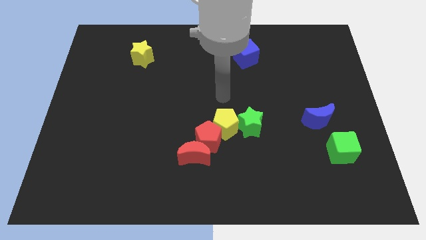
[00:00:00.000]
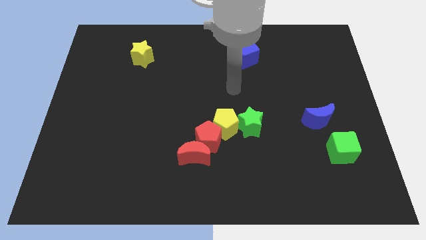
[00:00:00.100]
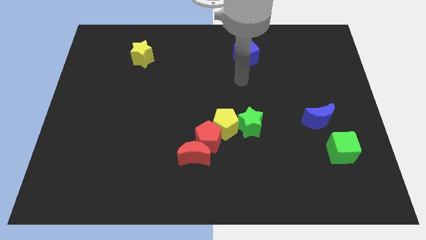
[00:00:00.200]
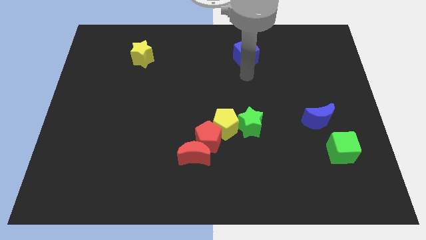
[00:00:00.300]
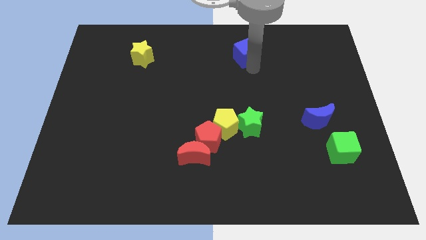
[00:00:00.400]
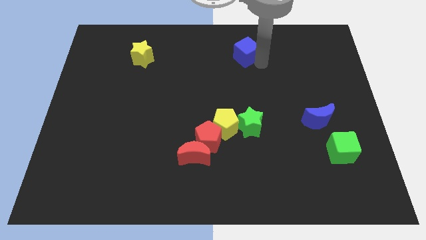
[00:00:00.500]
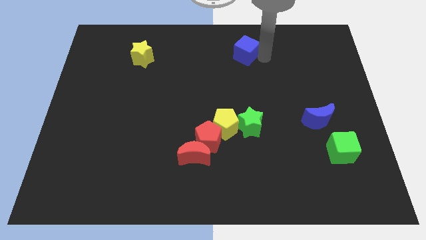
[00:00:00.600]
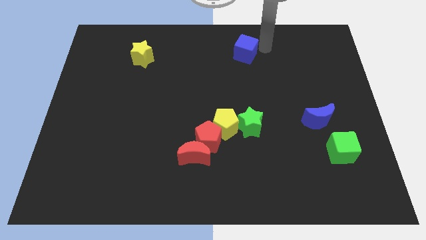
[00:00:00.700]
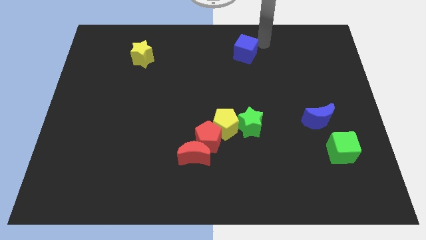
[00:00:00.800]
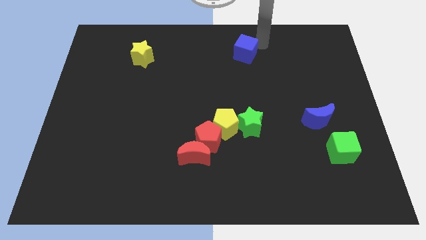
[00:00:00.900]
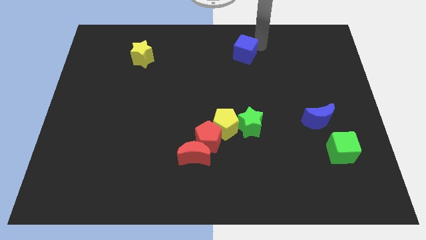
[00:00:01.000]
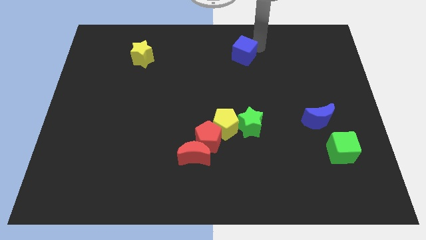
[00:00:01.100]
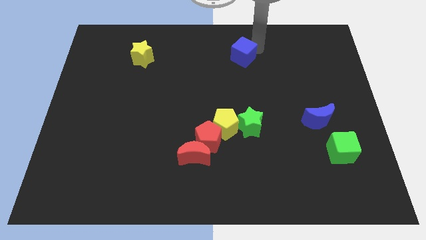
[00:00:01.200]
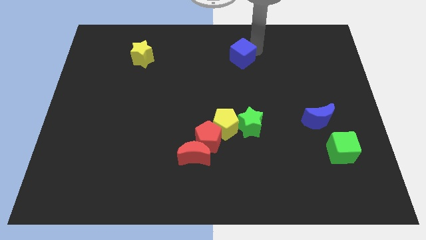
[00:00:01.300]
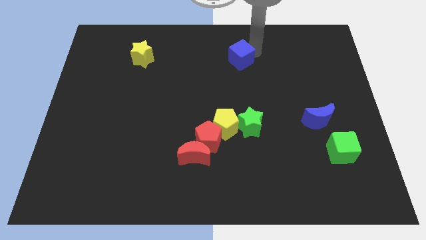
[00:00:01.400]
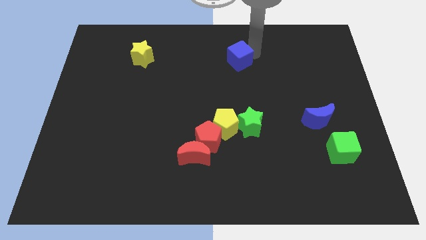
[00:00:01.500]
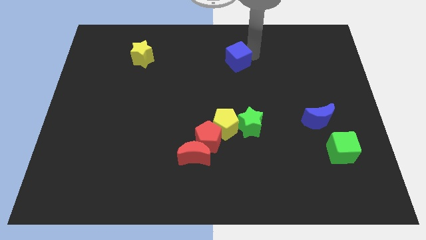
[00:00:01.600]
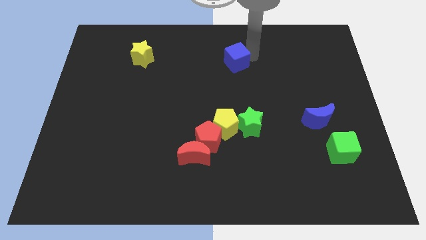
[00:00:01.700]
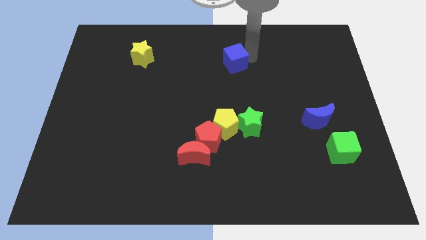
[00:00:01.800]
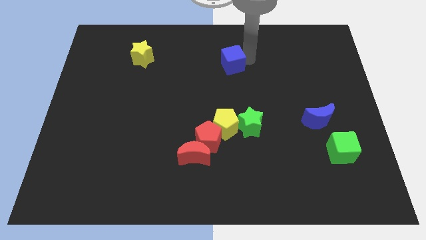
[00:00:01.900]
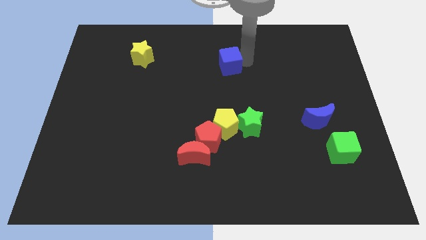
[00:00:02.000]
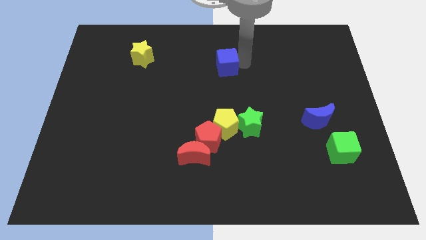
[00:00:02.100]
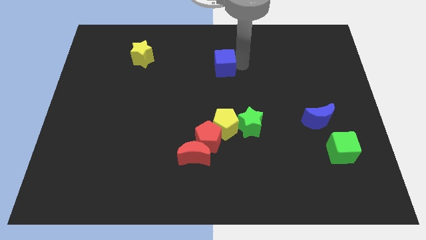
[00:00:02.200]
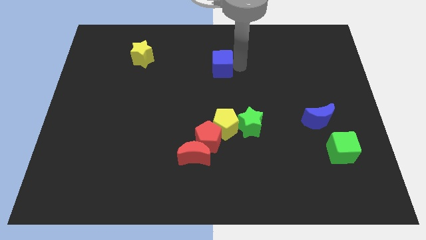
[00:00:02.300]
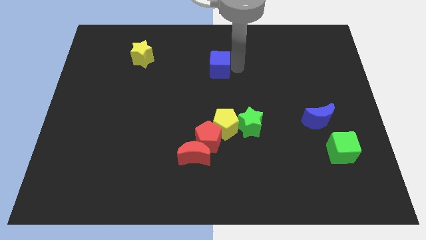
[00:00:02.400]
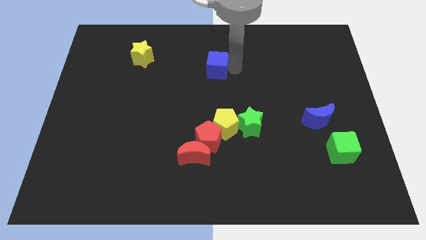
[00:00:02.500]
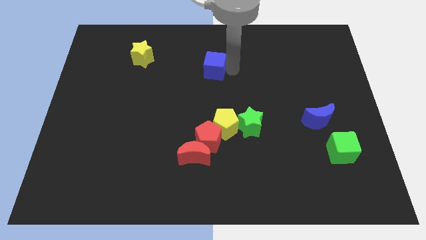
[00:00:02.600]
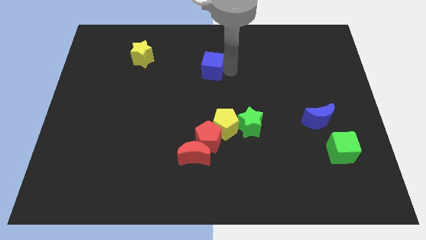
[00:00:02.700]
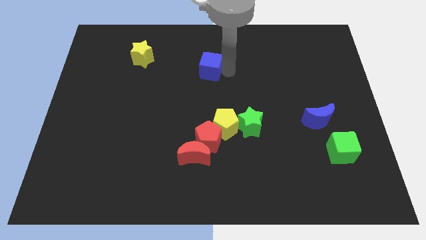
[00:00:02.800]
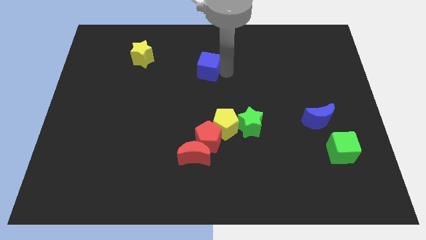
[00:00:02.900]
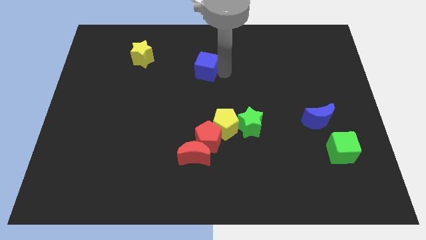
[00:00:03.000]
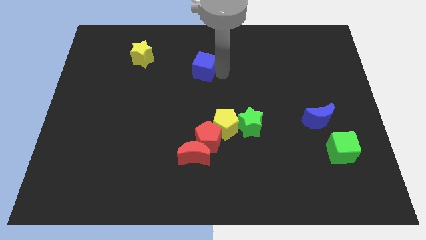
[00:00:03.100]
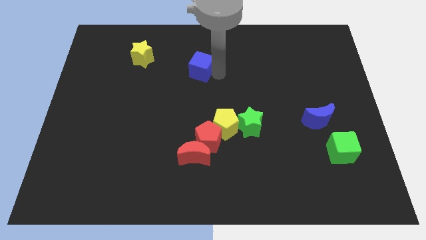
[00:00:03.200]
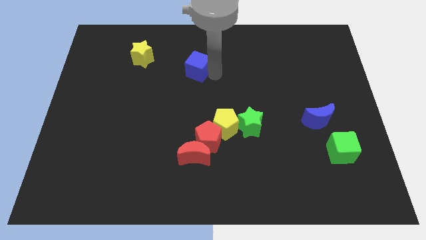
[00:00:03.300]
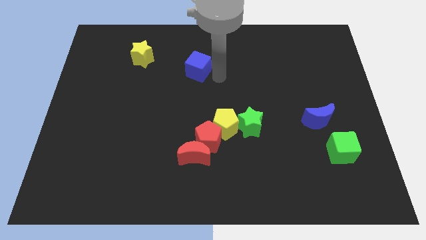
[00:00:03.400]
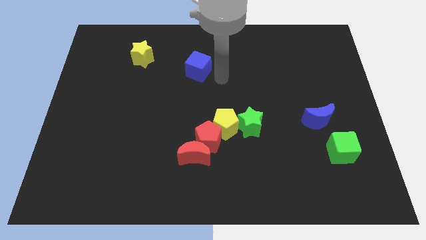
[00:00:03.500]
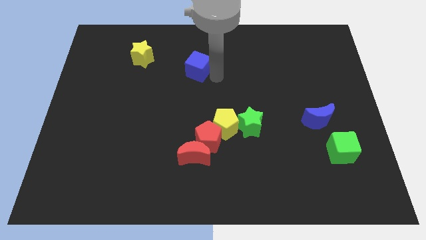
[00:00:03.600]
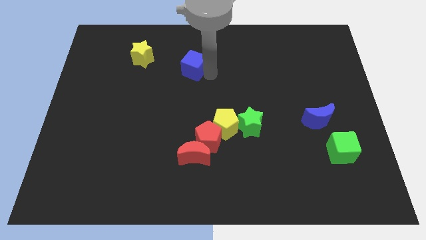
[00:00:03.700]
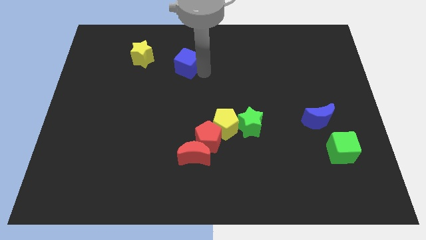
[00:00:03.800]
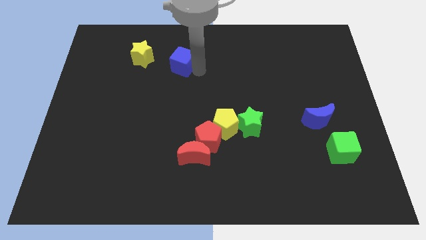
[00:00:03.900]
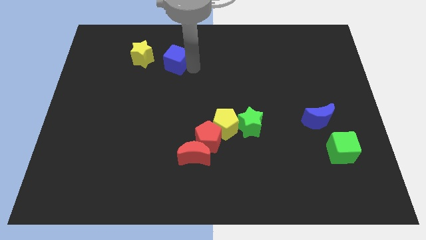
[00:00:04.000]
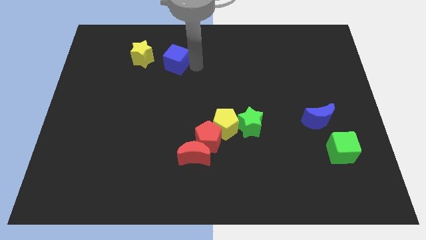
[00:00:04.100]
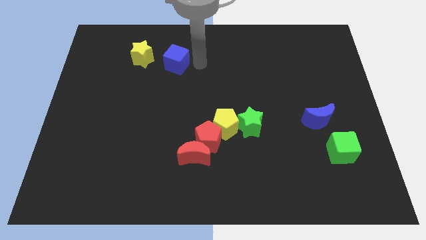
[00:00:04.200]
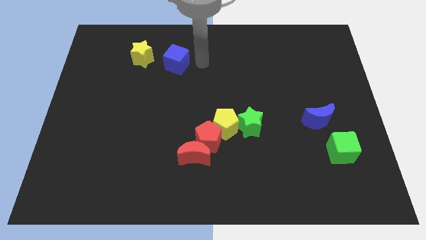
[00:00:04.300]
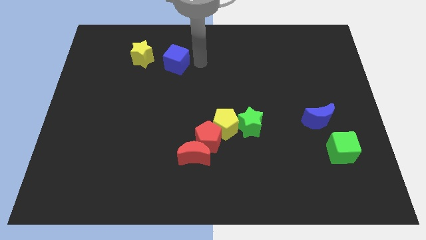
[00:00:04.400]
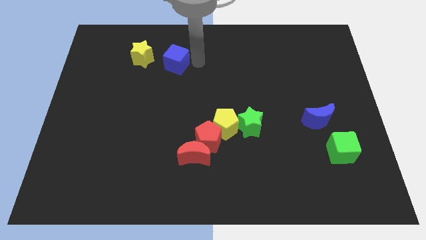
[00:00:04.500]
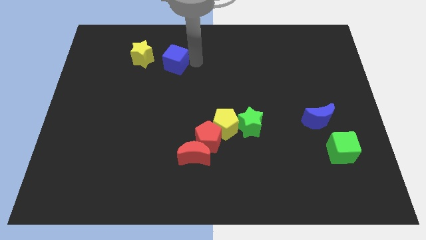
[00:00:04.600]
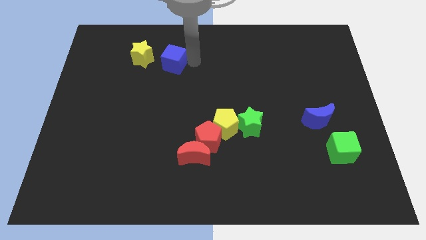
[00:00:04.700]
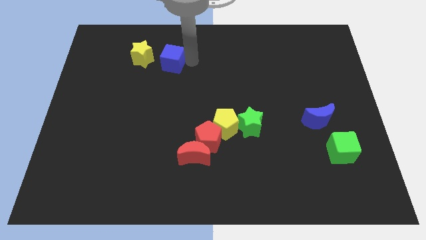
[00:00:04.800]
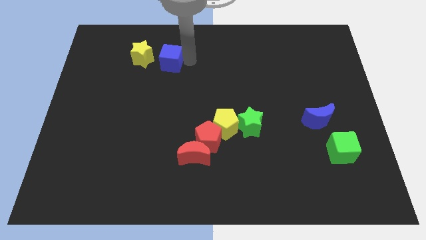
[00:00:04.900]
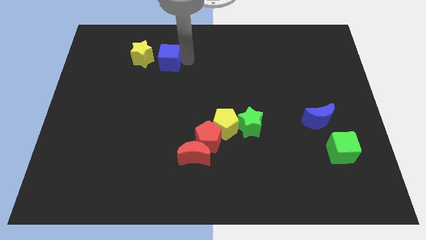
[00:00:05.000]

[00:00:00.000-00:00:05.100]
slide the blue cube left

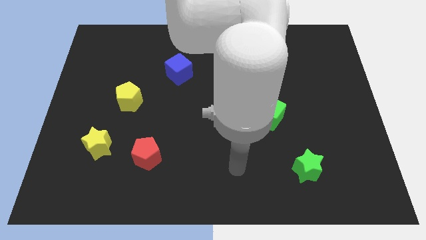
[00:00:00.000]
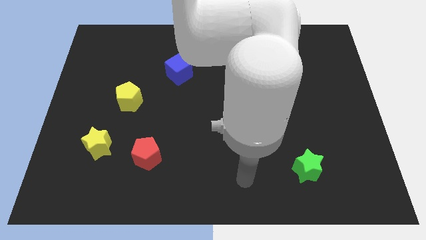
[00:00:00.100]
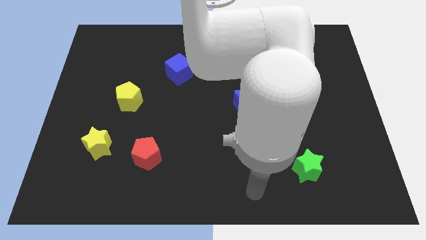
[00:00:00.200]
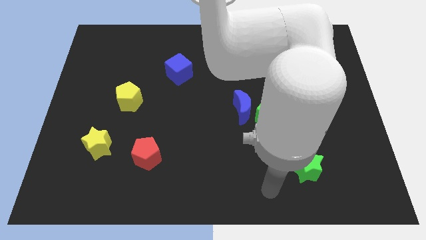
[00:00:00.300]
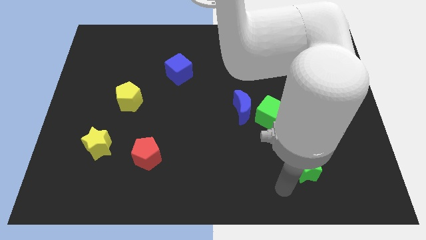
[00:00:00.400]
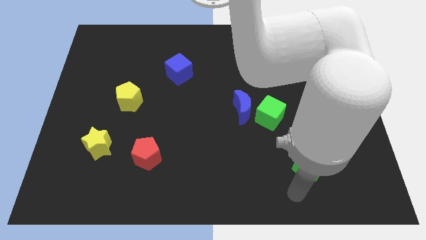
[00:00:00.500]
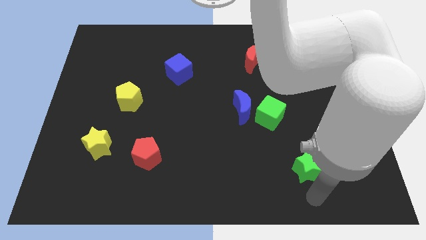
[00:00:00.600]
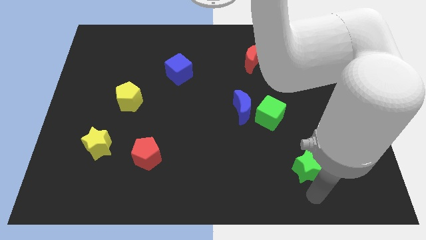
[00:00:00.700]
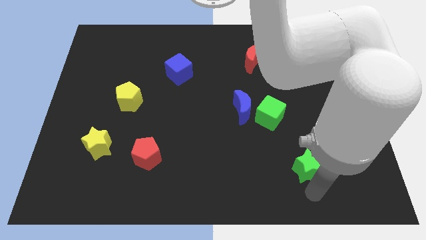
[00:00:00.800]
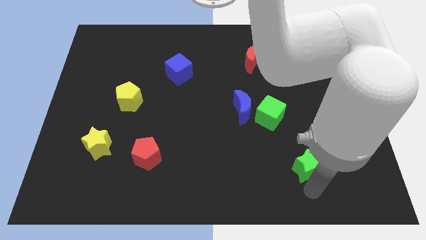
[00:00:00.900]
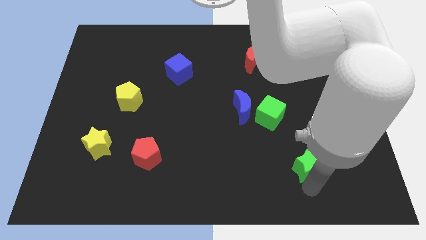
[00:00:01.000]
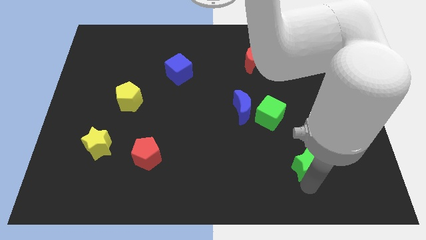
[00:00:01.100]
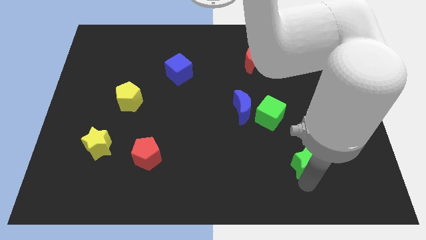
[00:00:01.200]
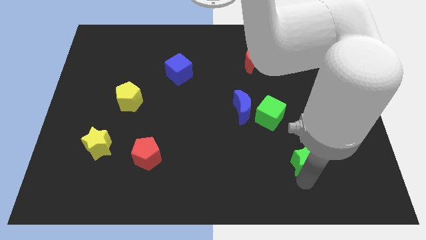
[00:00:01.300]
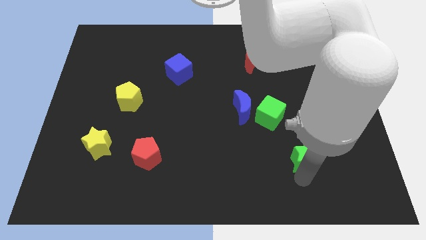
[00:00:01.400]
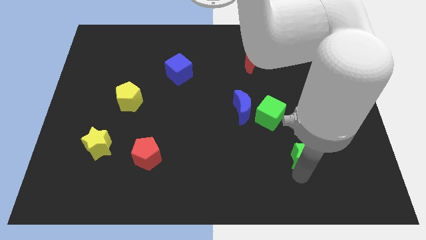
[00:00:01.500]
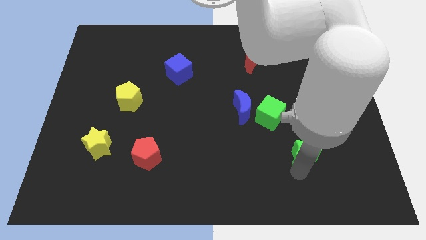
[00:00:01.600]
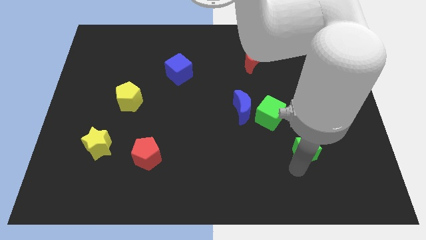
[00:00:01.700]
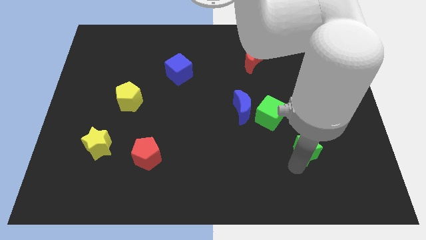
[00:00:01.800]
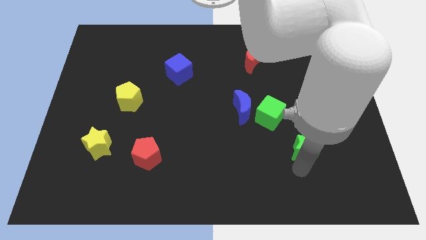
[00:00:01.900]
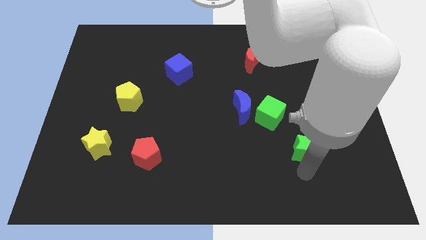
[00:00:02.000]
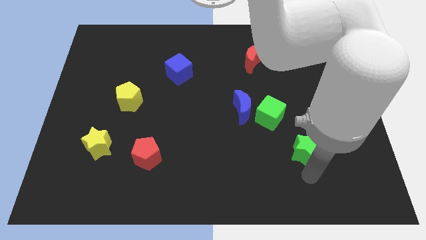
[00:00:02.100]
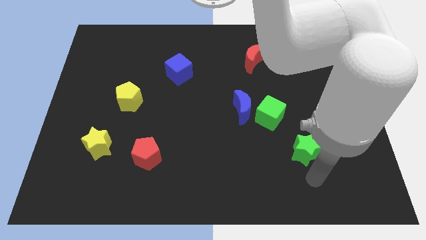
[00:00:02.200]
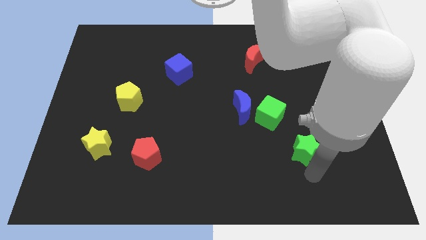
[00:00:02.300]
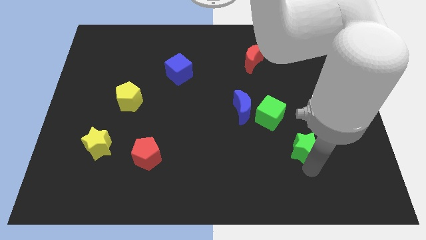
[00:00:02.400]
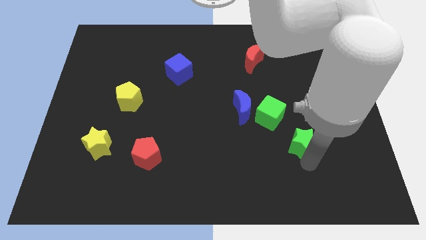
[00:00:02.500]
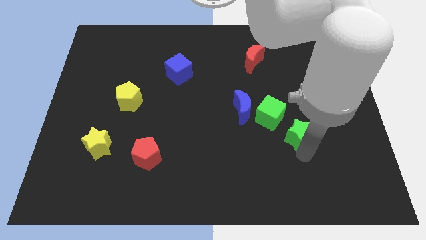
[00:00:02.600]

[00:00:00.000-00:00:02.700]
move the green star a bit upwards

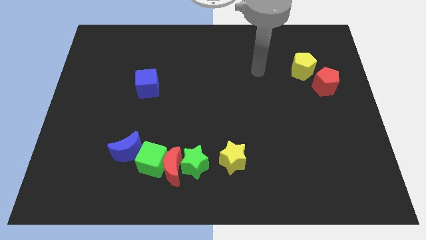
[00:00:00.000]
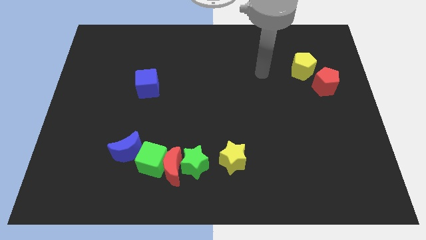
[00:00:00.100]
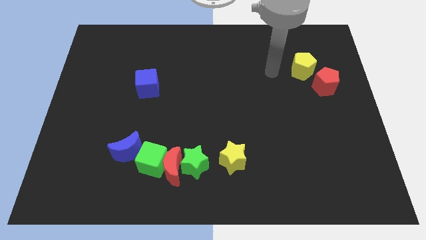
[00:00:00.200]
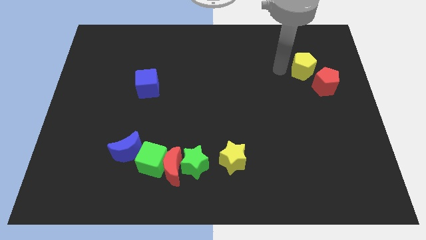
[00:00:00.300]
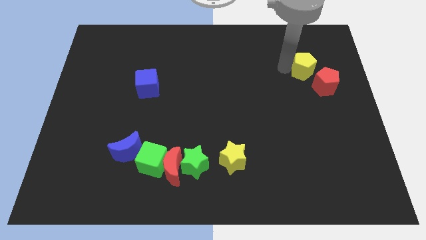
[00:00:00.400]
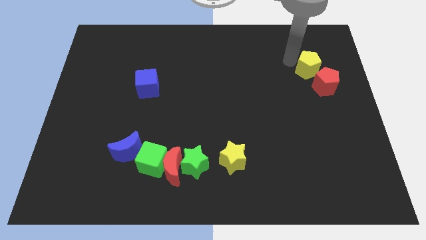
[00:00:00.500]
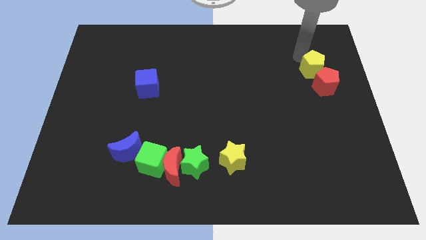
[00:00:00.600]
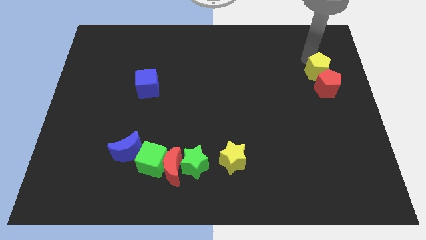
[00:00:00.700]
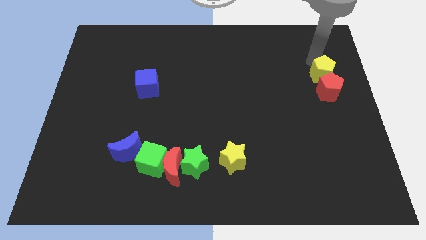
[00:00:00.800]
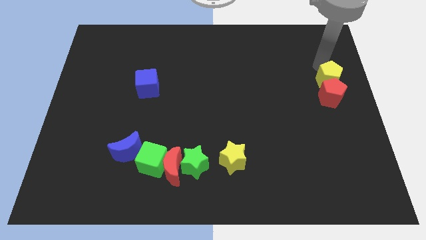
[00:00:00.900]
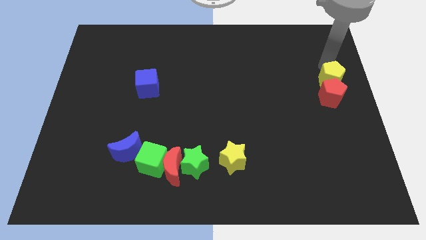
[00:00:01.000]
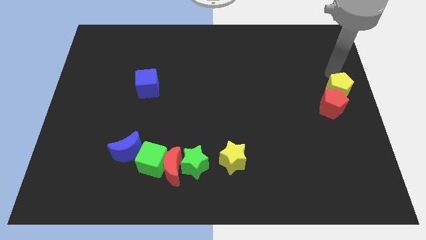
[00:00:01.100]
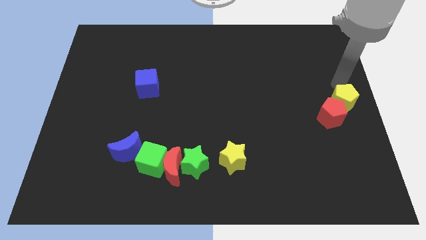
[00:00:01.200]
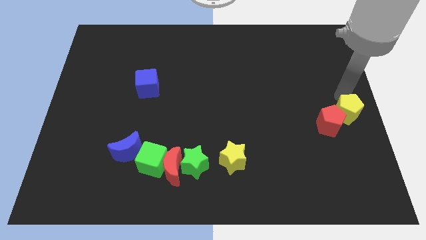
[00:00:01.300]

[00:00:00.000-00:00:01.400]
move the red pentagon downwards and to the left diagonally slightly
